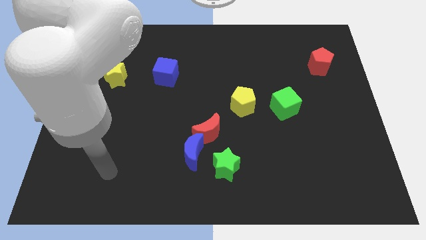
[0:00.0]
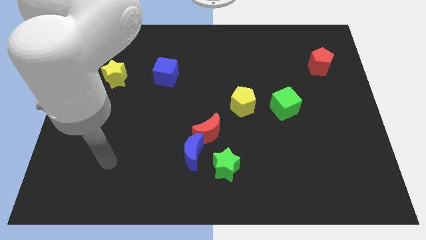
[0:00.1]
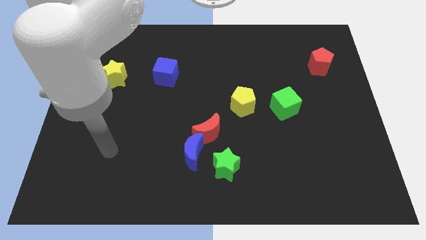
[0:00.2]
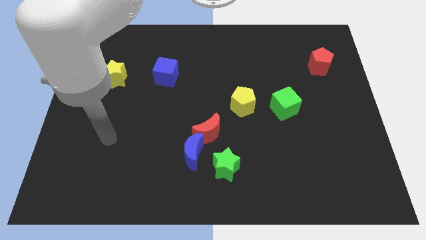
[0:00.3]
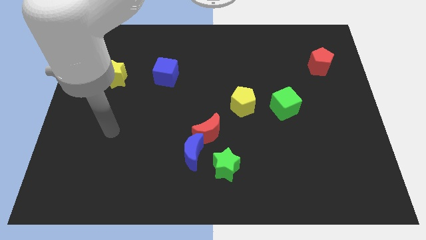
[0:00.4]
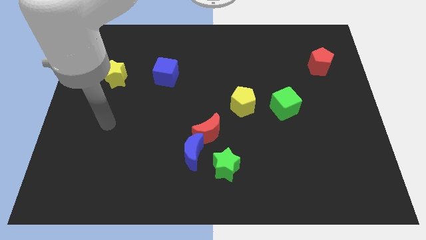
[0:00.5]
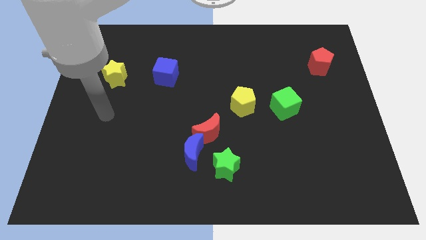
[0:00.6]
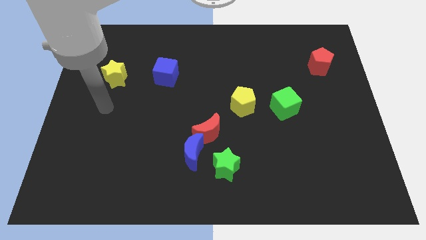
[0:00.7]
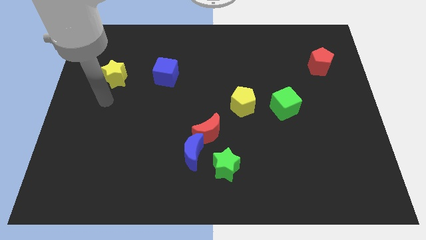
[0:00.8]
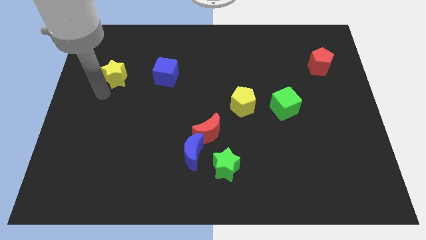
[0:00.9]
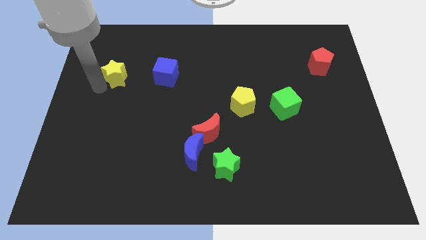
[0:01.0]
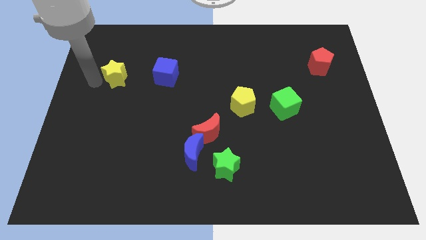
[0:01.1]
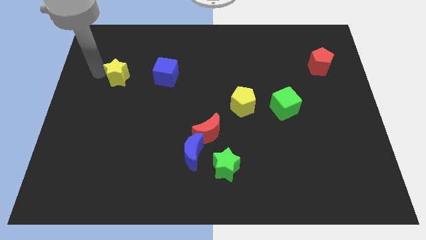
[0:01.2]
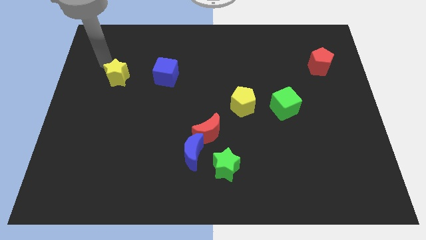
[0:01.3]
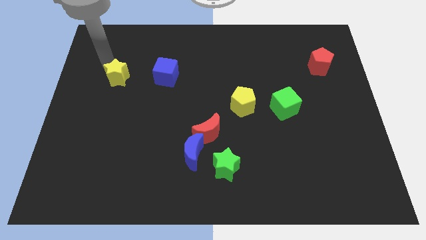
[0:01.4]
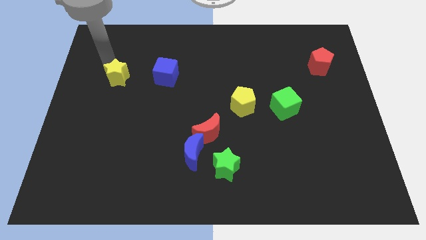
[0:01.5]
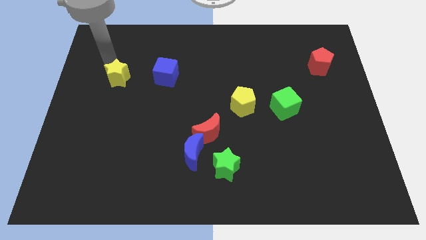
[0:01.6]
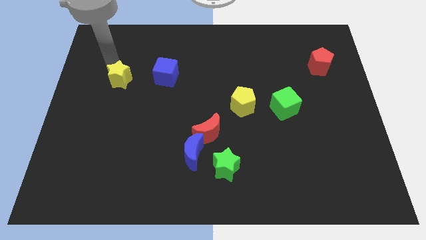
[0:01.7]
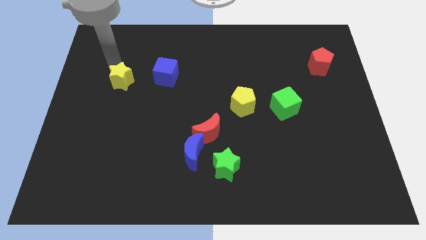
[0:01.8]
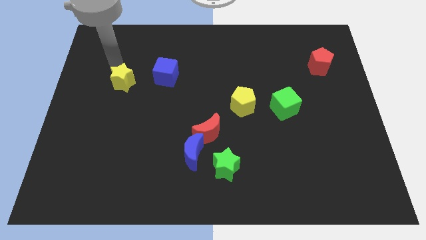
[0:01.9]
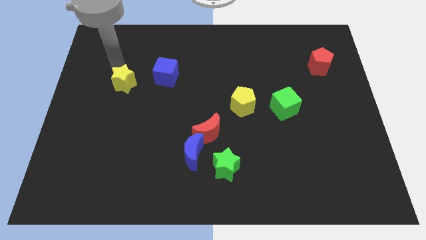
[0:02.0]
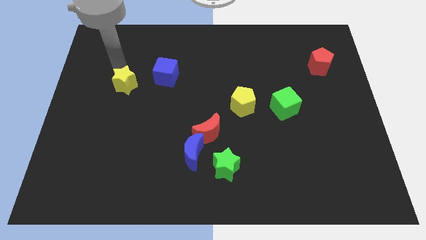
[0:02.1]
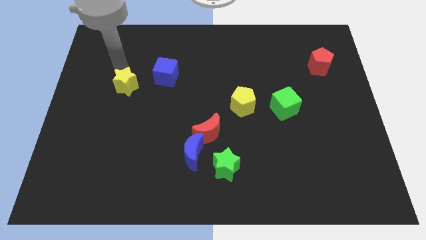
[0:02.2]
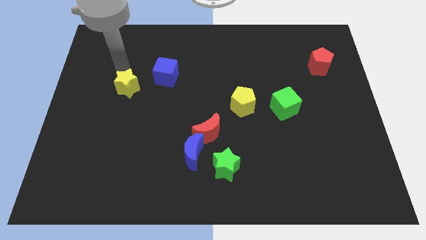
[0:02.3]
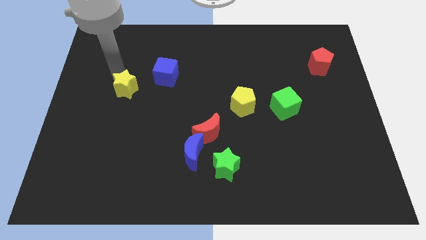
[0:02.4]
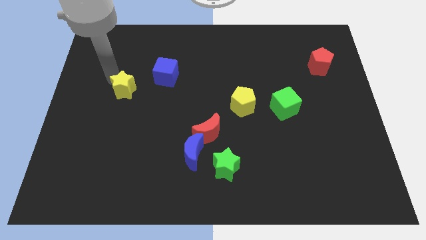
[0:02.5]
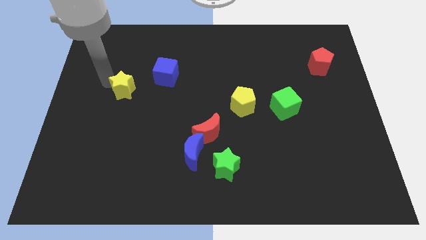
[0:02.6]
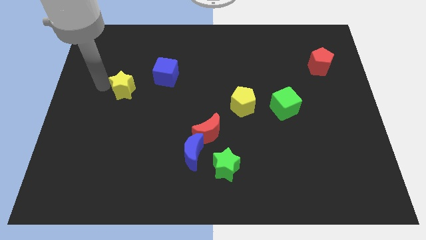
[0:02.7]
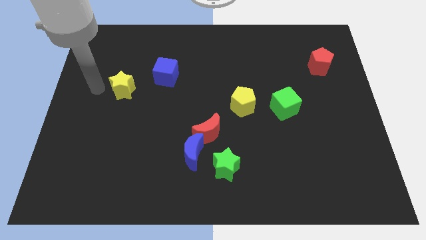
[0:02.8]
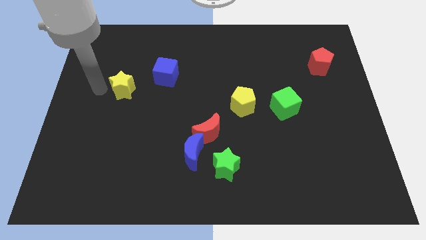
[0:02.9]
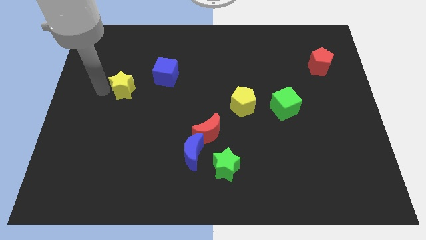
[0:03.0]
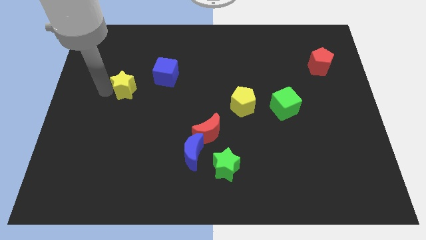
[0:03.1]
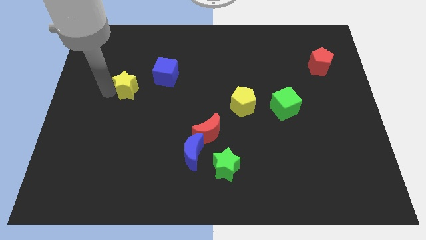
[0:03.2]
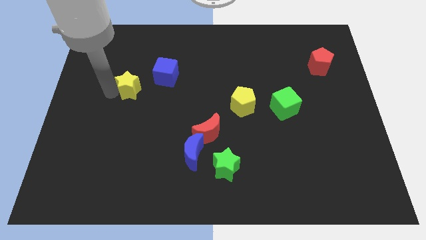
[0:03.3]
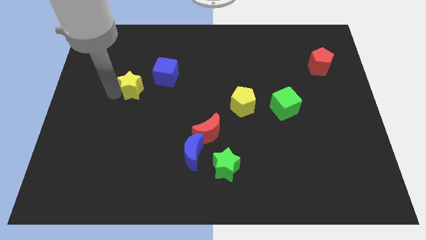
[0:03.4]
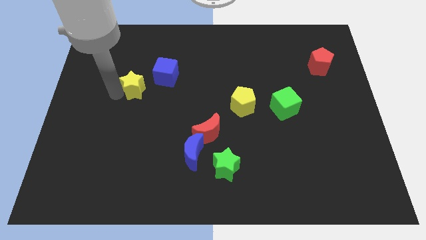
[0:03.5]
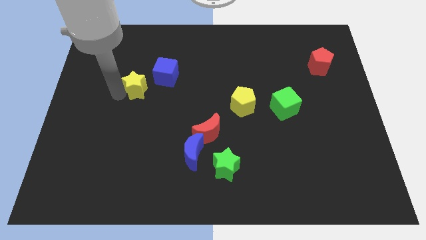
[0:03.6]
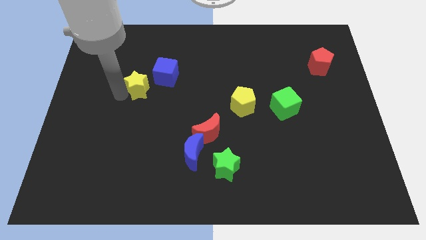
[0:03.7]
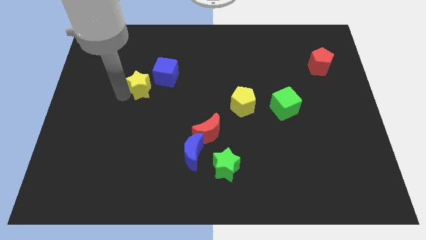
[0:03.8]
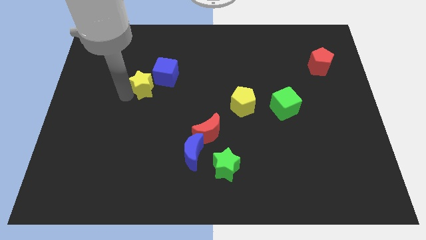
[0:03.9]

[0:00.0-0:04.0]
slightly slide the yellow star to the right

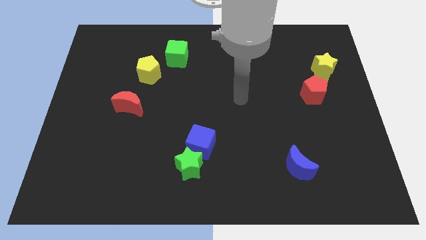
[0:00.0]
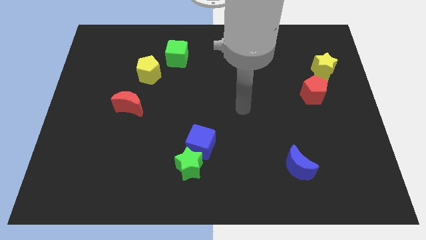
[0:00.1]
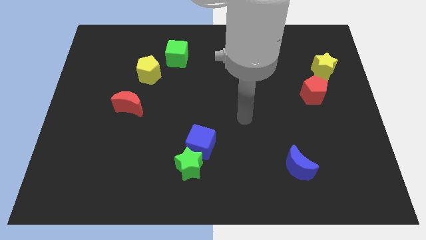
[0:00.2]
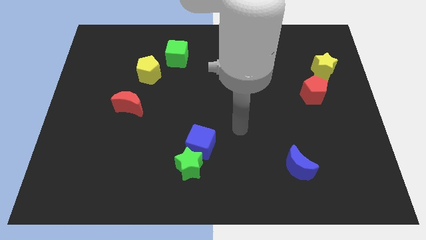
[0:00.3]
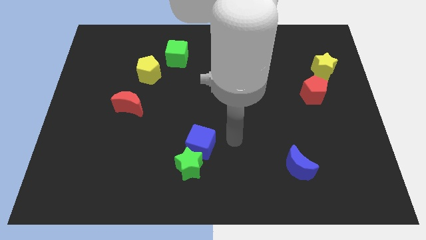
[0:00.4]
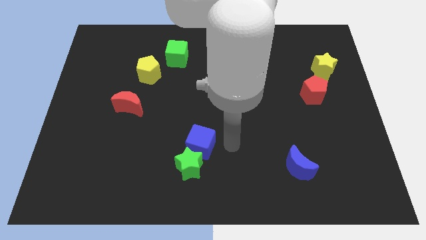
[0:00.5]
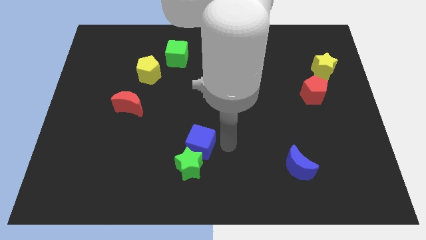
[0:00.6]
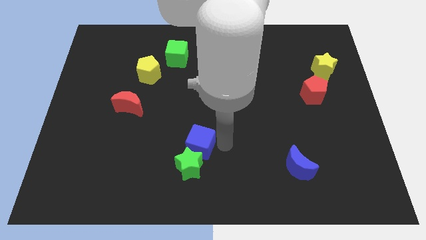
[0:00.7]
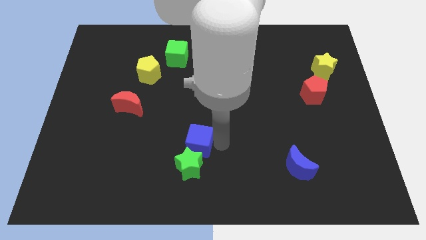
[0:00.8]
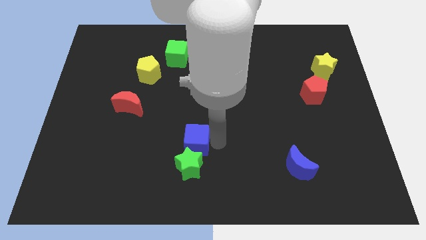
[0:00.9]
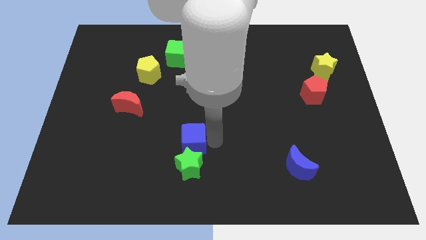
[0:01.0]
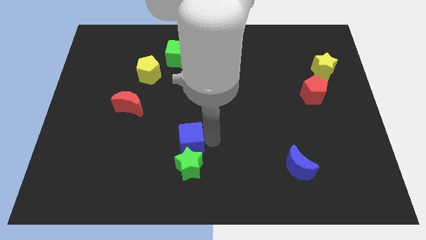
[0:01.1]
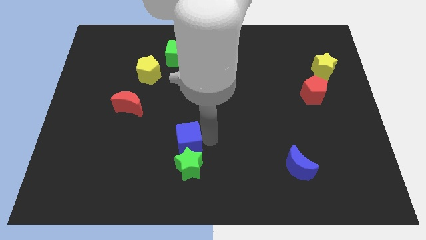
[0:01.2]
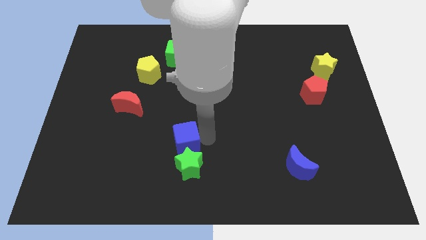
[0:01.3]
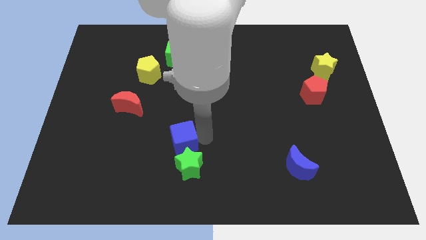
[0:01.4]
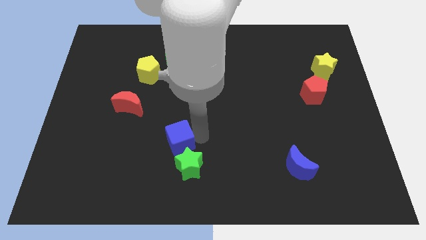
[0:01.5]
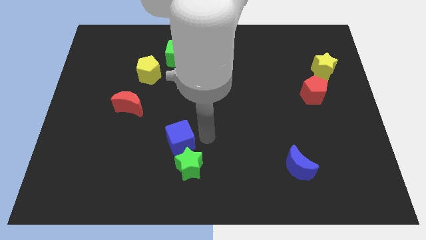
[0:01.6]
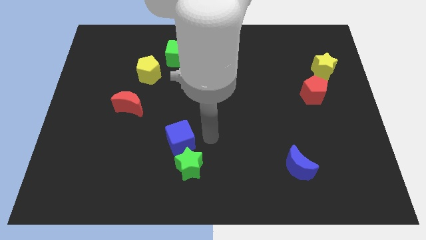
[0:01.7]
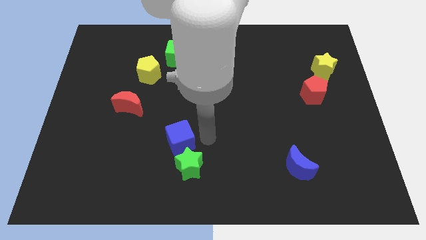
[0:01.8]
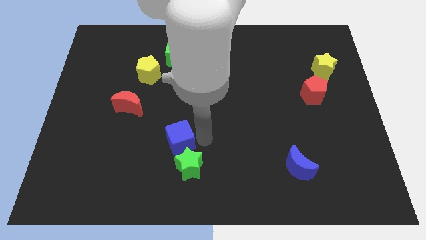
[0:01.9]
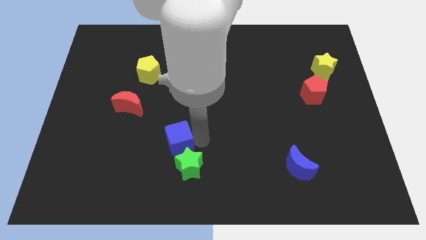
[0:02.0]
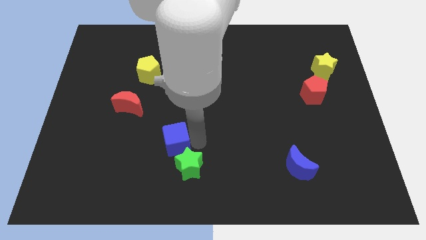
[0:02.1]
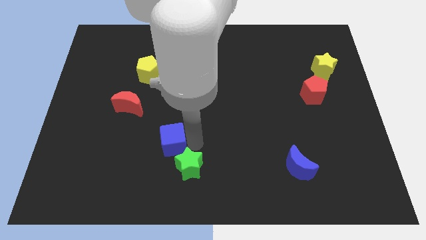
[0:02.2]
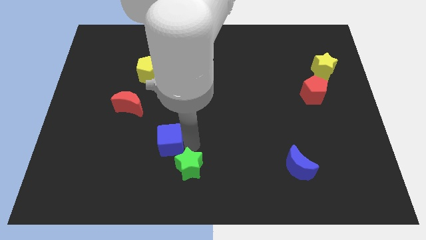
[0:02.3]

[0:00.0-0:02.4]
slide the blue cube a little bit to the left

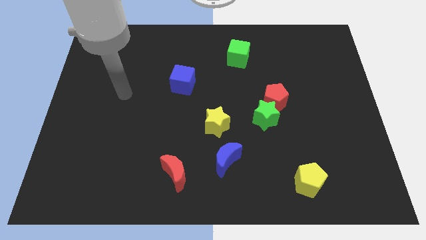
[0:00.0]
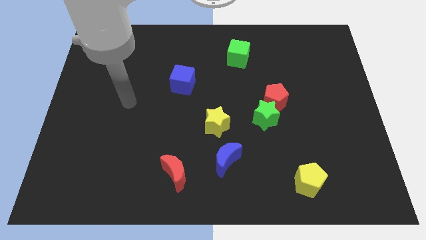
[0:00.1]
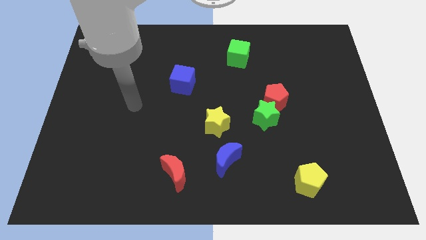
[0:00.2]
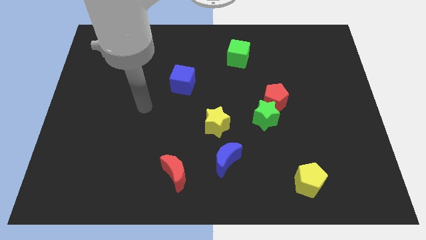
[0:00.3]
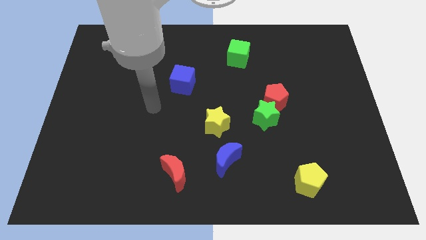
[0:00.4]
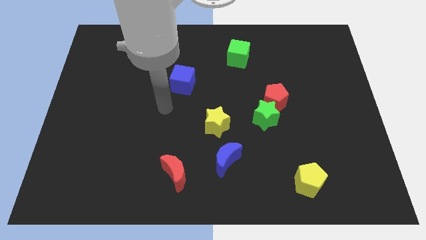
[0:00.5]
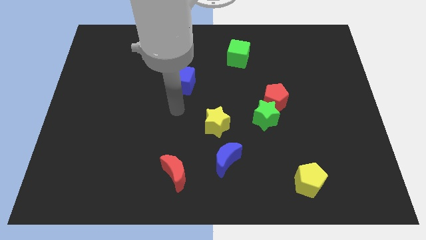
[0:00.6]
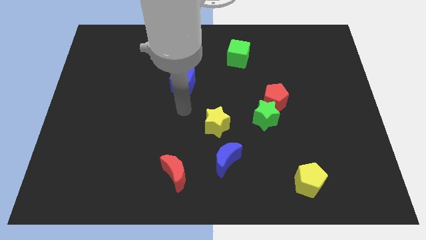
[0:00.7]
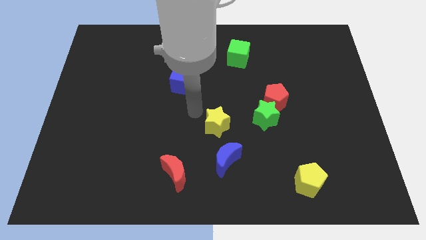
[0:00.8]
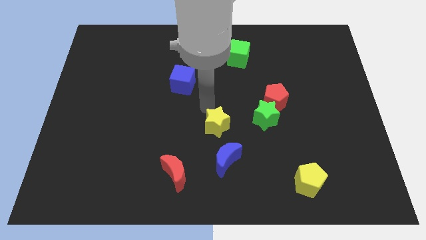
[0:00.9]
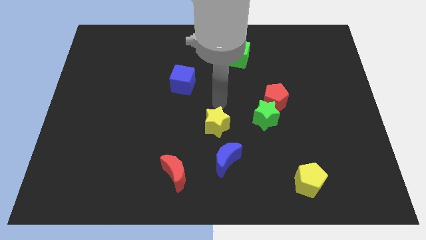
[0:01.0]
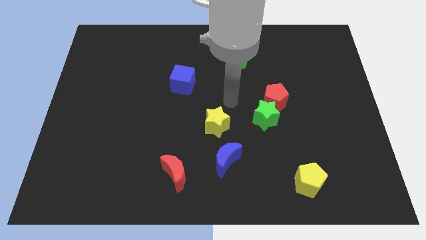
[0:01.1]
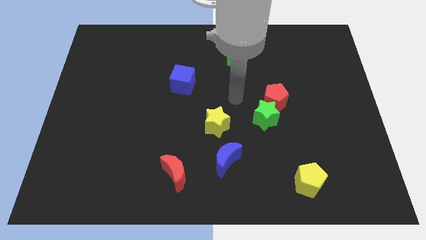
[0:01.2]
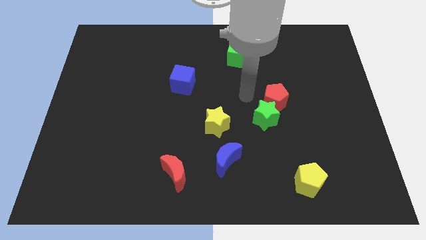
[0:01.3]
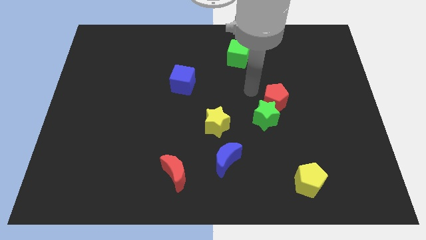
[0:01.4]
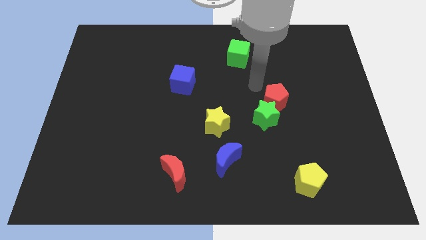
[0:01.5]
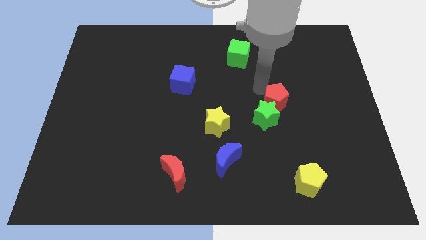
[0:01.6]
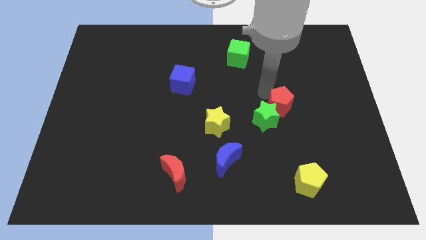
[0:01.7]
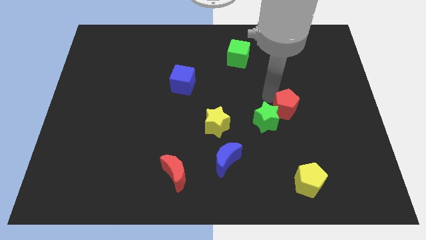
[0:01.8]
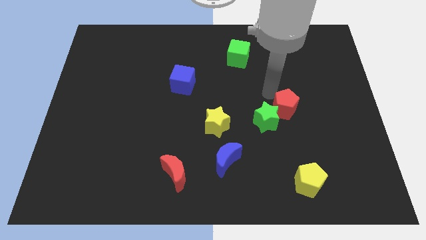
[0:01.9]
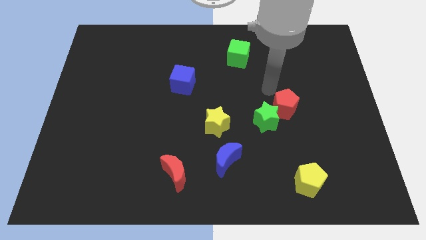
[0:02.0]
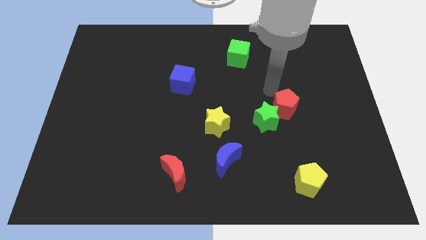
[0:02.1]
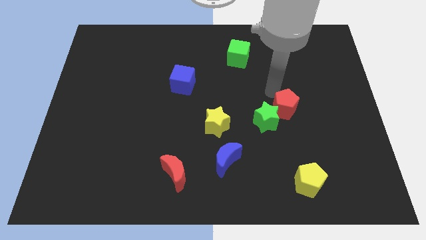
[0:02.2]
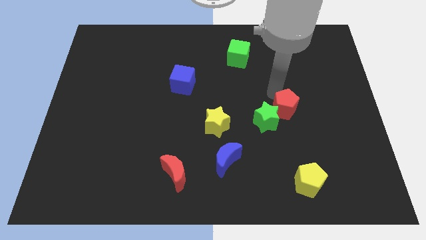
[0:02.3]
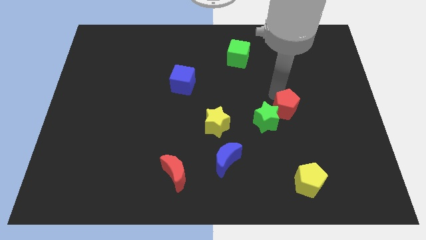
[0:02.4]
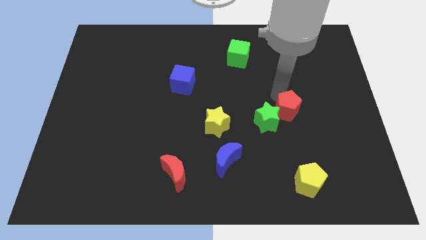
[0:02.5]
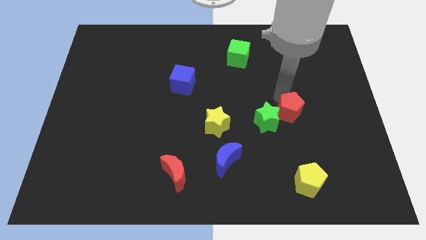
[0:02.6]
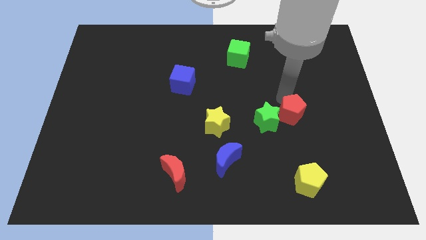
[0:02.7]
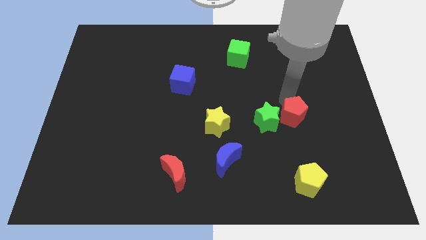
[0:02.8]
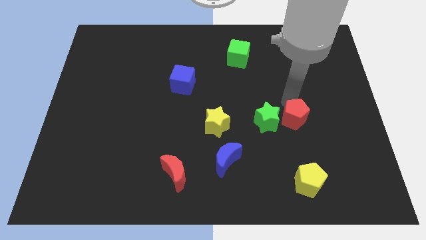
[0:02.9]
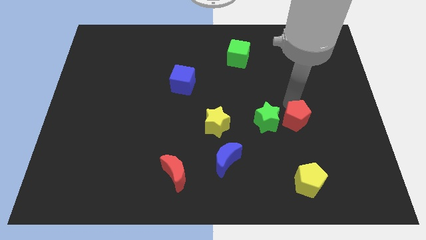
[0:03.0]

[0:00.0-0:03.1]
slightly move the red pentagon downwards and right diagonally
